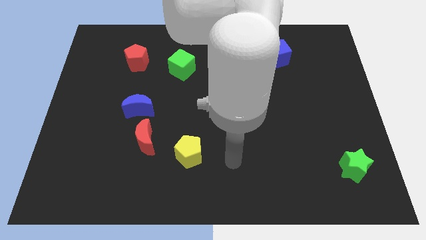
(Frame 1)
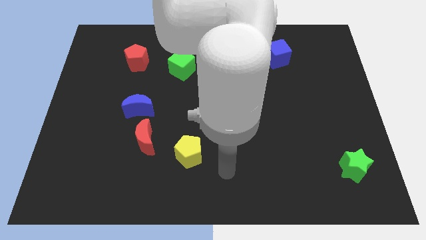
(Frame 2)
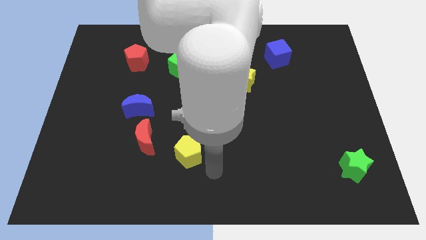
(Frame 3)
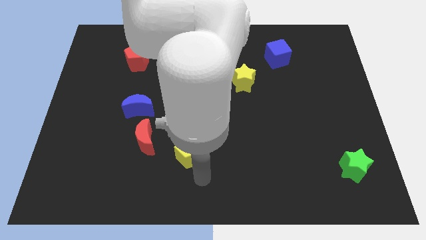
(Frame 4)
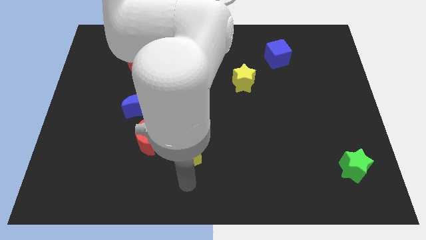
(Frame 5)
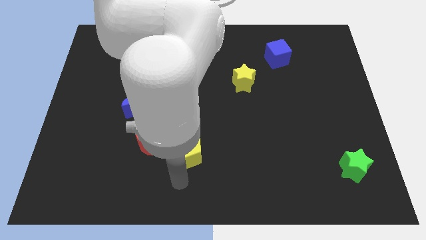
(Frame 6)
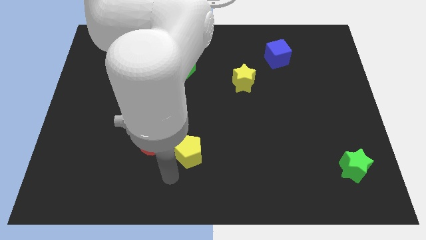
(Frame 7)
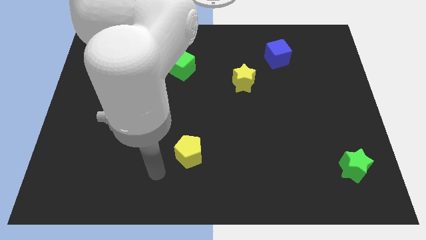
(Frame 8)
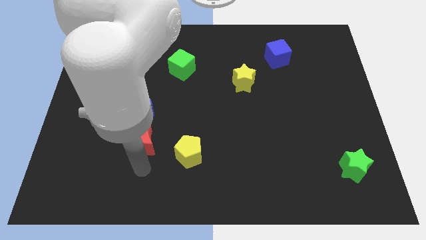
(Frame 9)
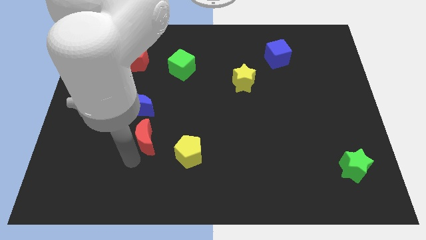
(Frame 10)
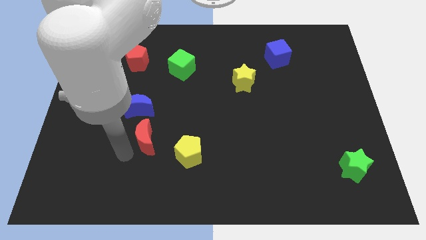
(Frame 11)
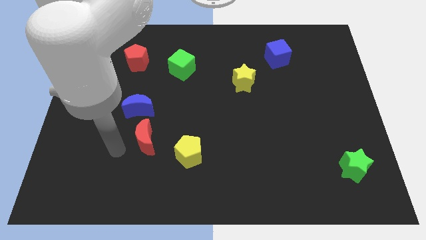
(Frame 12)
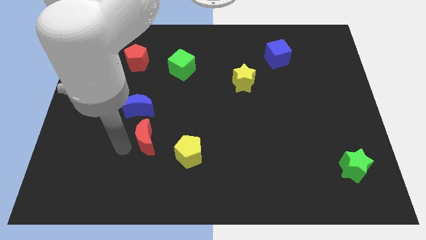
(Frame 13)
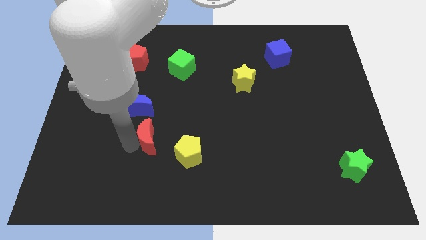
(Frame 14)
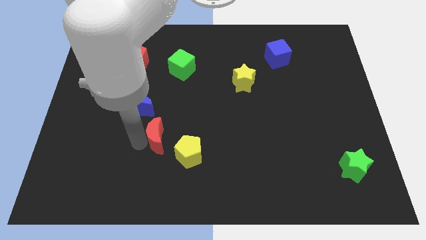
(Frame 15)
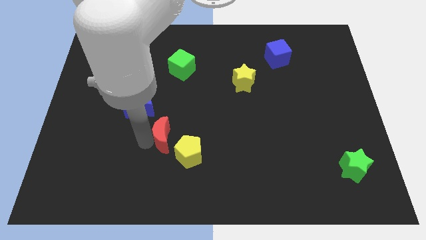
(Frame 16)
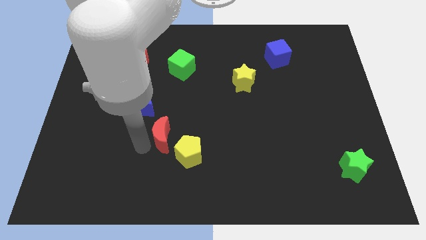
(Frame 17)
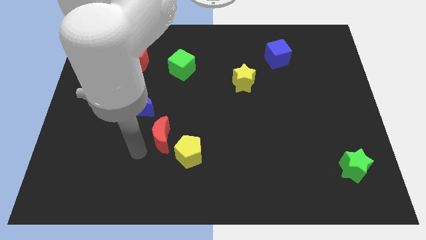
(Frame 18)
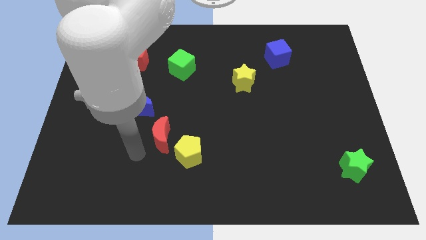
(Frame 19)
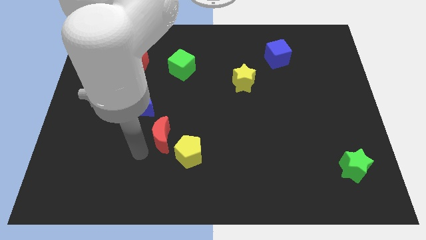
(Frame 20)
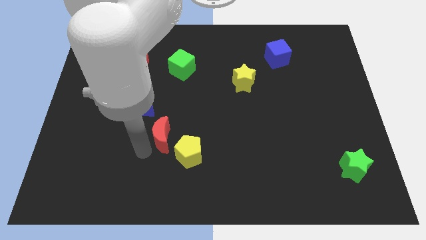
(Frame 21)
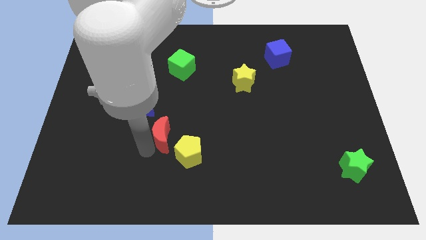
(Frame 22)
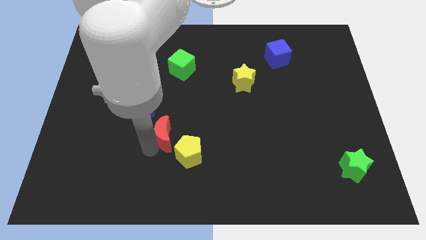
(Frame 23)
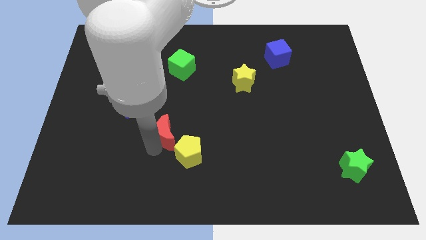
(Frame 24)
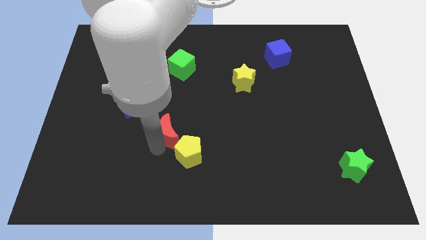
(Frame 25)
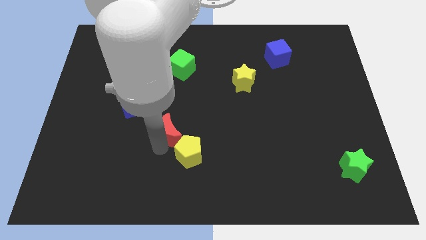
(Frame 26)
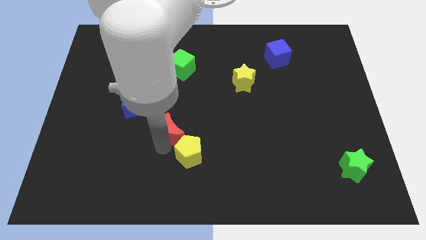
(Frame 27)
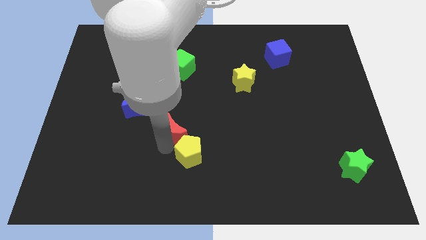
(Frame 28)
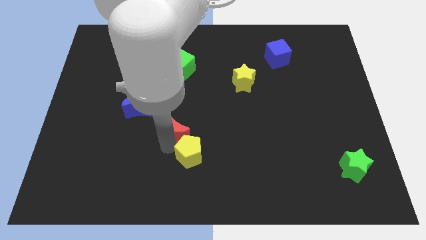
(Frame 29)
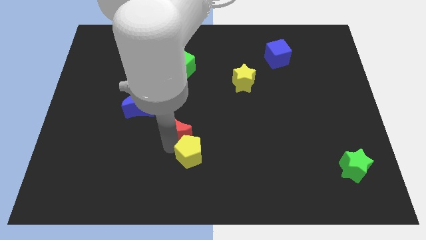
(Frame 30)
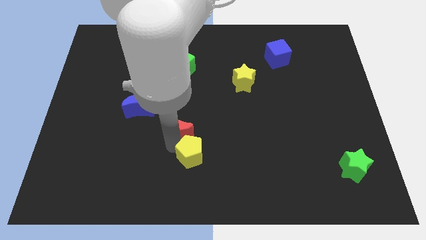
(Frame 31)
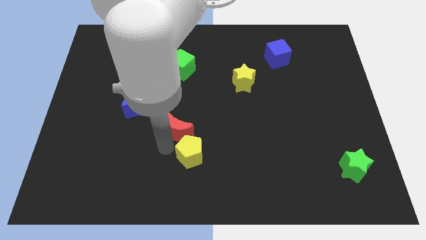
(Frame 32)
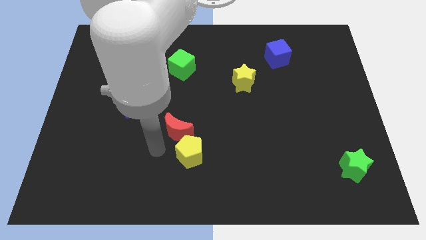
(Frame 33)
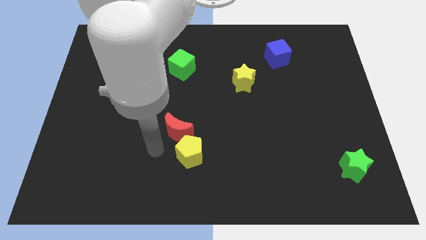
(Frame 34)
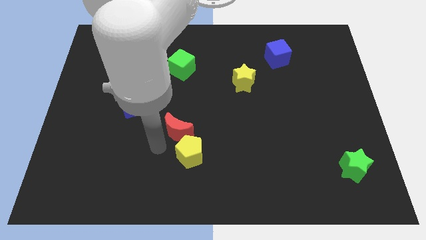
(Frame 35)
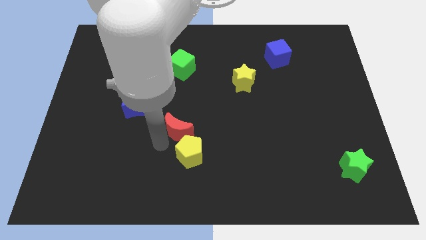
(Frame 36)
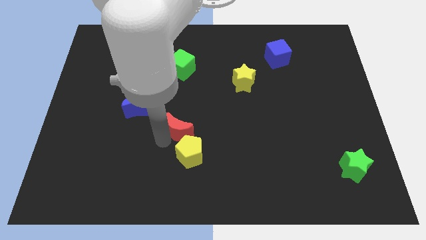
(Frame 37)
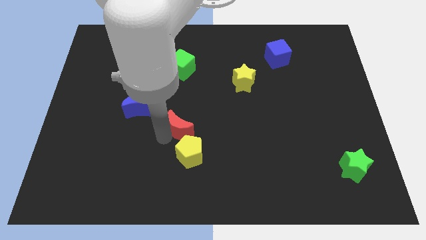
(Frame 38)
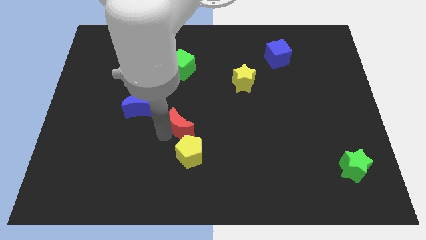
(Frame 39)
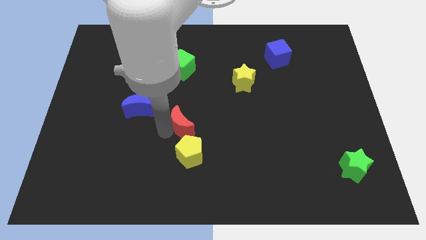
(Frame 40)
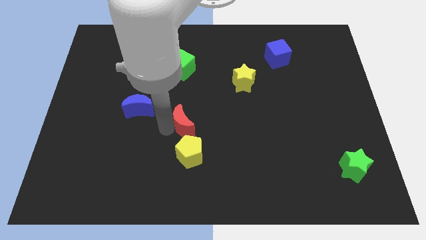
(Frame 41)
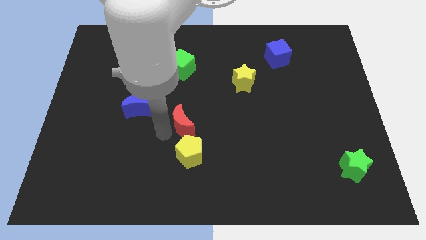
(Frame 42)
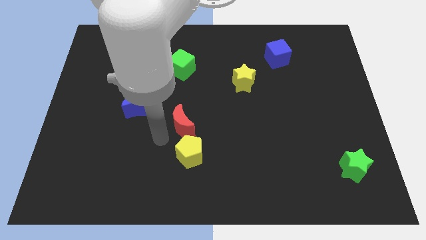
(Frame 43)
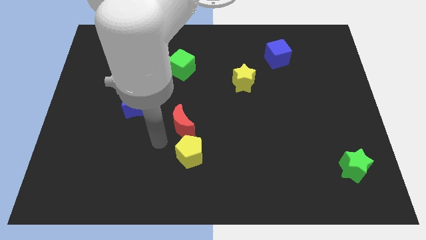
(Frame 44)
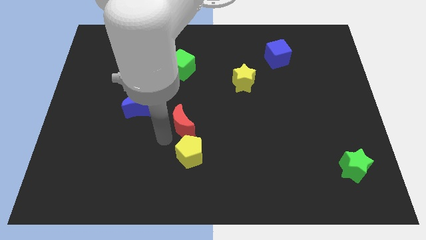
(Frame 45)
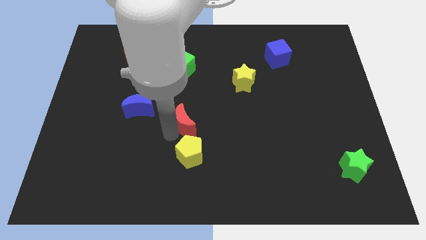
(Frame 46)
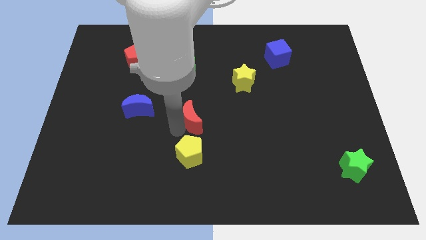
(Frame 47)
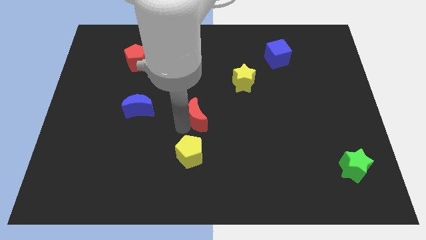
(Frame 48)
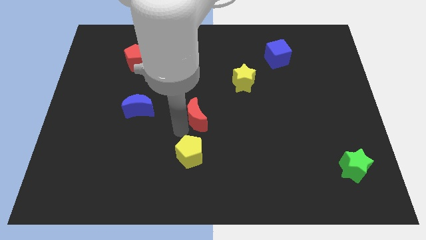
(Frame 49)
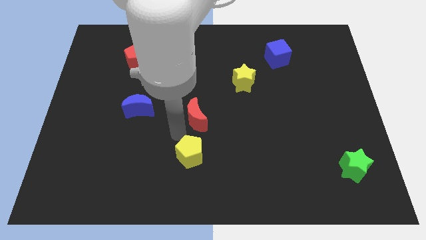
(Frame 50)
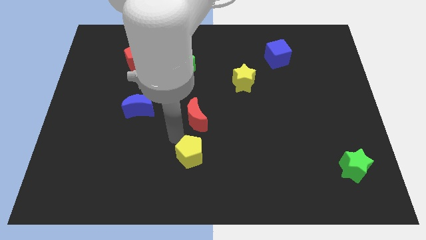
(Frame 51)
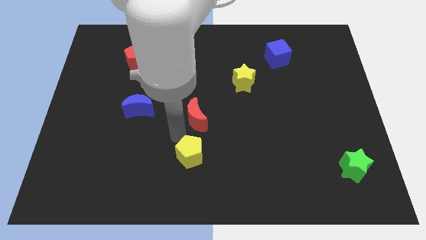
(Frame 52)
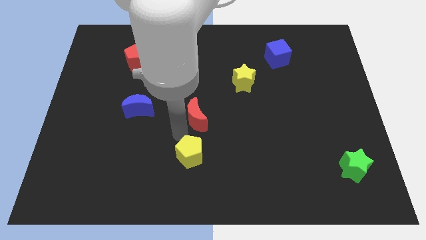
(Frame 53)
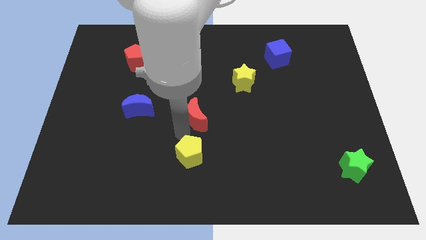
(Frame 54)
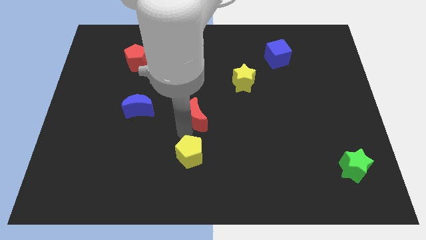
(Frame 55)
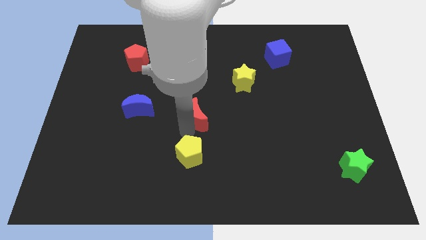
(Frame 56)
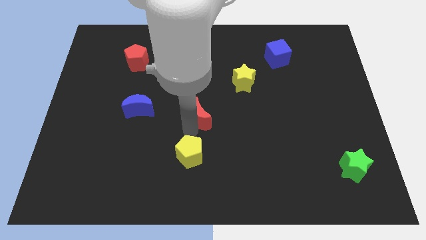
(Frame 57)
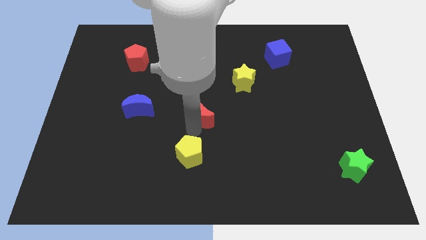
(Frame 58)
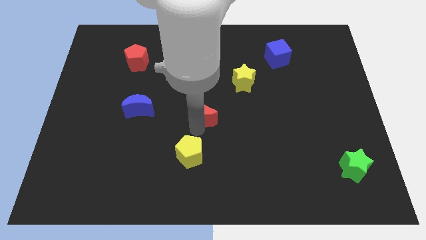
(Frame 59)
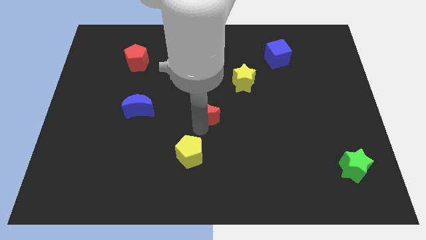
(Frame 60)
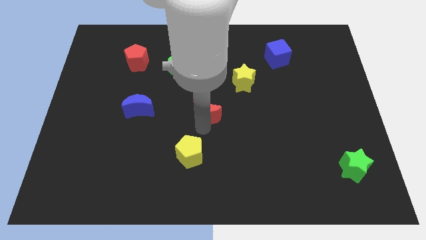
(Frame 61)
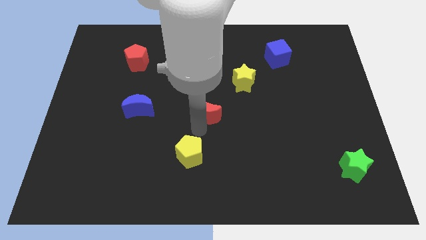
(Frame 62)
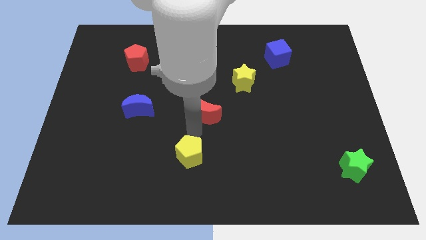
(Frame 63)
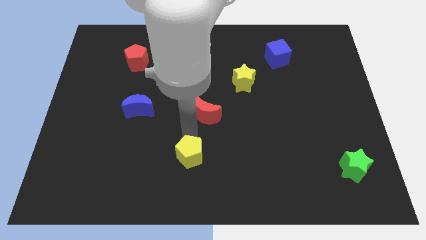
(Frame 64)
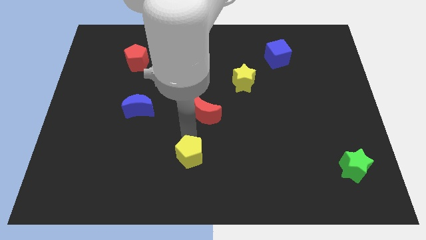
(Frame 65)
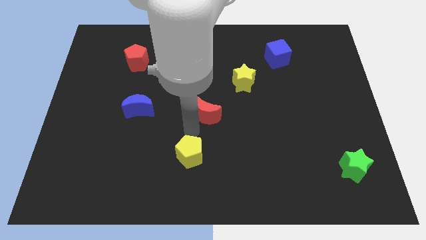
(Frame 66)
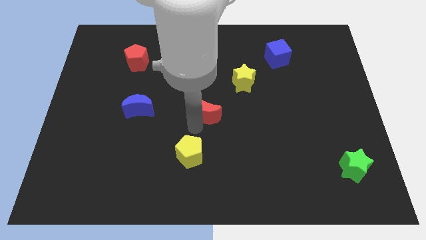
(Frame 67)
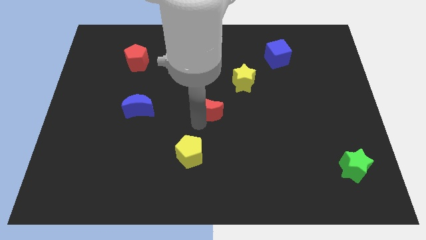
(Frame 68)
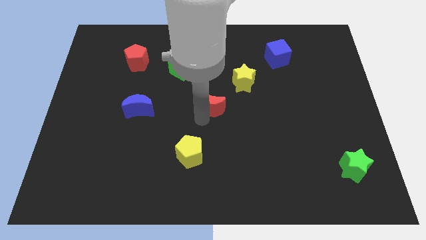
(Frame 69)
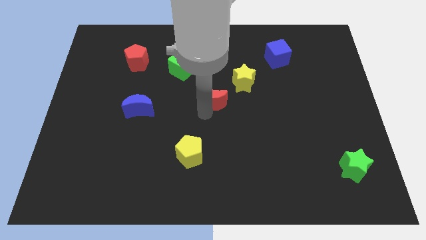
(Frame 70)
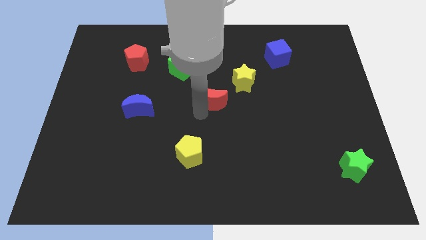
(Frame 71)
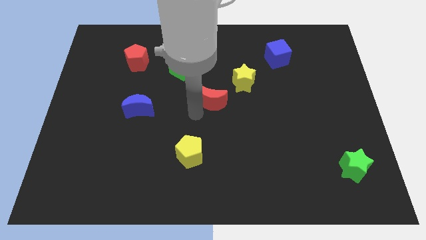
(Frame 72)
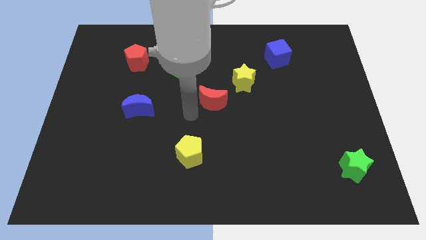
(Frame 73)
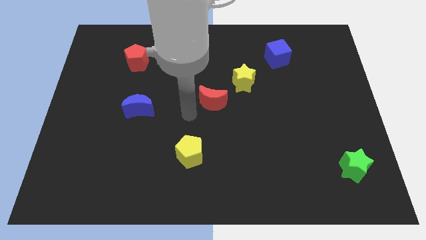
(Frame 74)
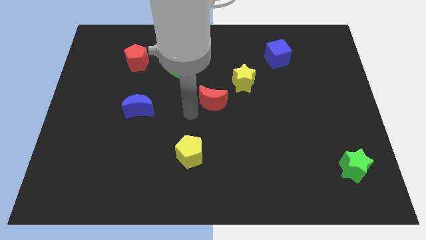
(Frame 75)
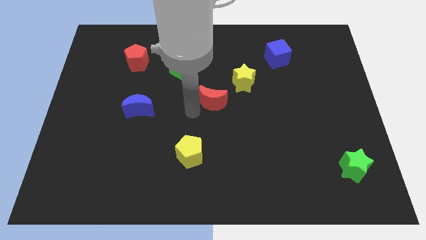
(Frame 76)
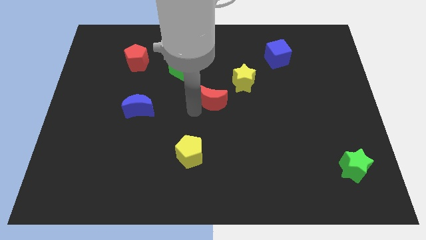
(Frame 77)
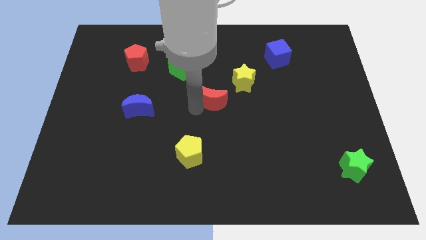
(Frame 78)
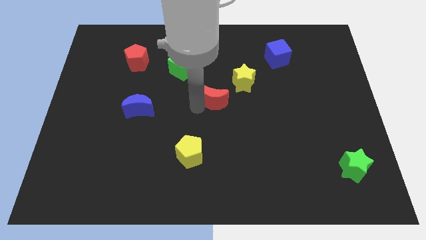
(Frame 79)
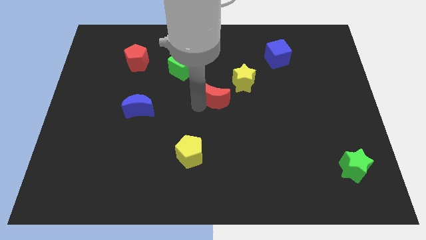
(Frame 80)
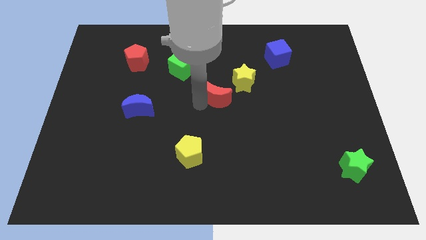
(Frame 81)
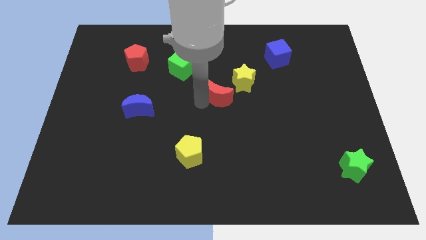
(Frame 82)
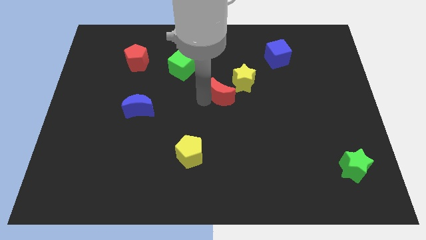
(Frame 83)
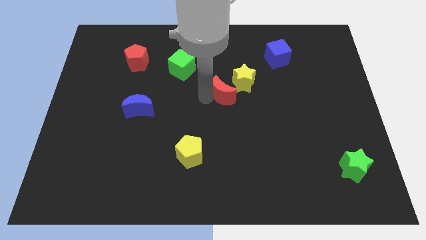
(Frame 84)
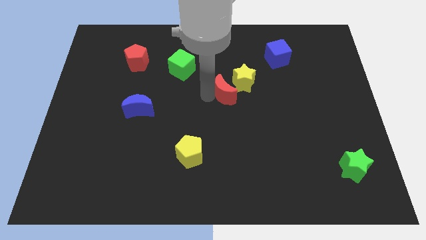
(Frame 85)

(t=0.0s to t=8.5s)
slide the red moon to the yellow star
